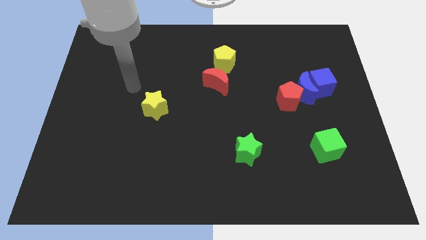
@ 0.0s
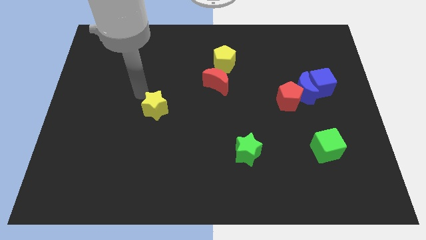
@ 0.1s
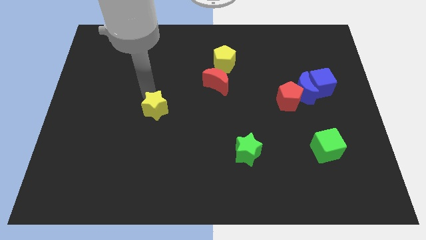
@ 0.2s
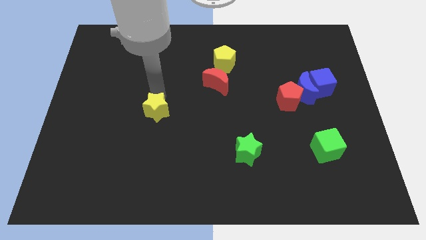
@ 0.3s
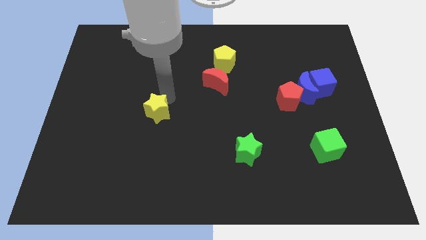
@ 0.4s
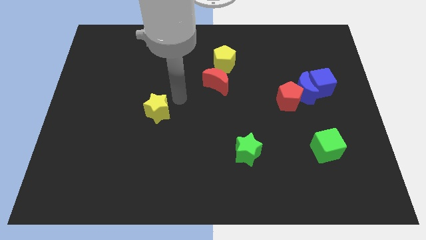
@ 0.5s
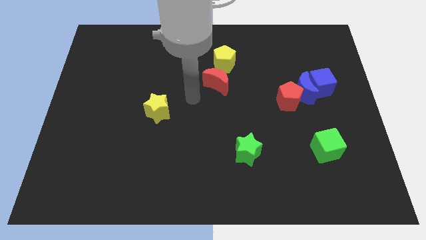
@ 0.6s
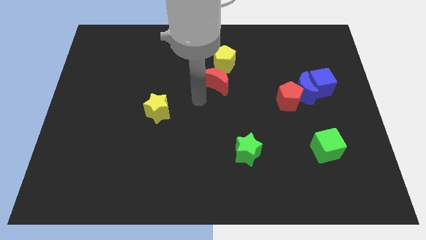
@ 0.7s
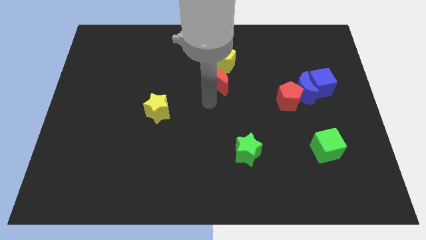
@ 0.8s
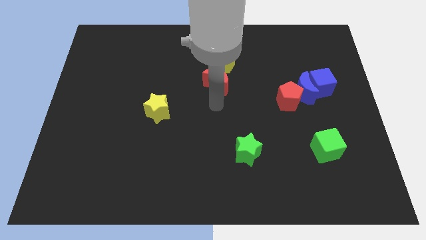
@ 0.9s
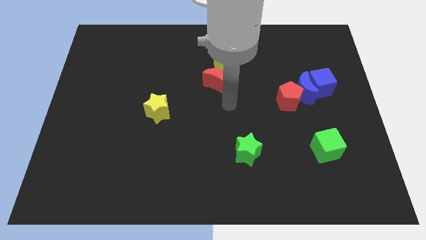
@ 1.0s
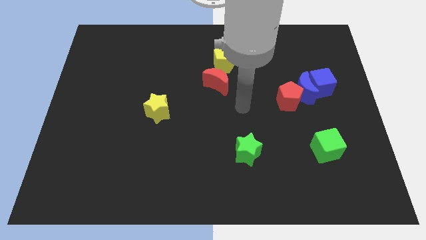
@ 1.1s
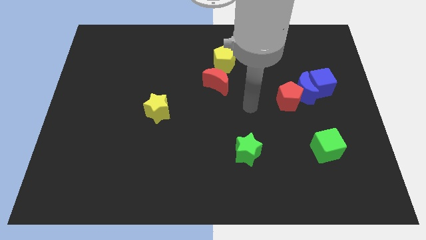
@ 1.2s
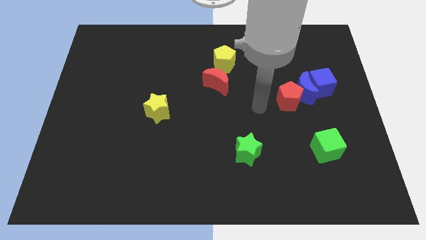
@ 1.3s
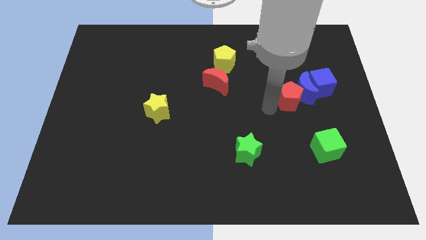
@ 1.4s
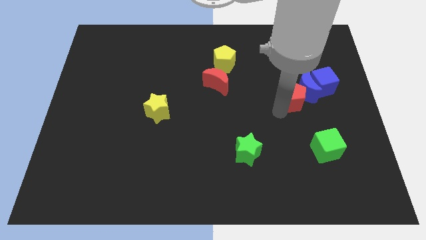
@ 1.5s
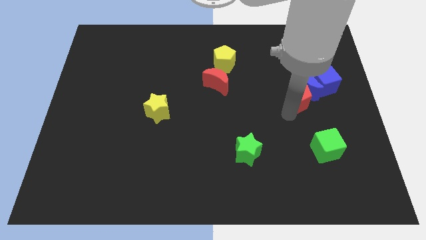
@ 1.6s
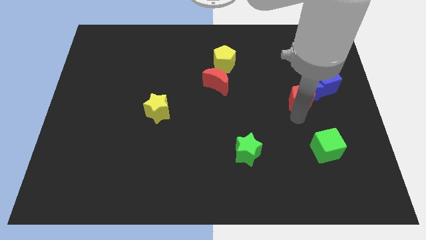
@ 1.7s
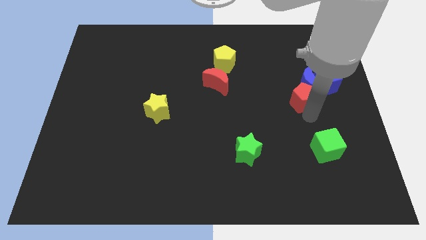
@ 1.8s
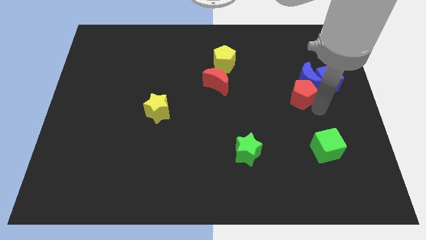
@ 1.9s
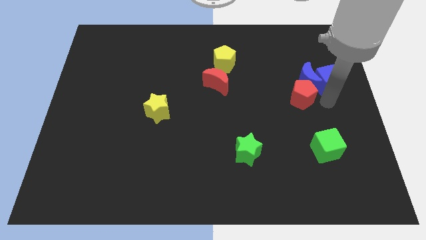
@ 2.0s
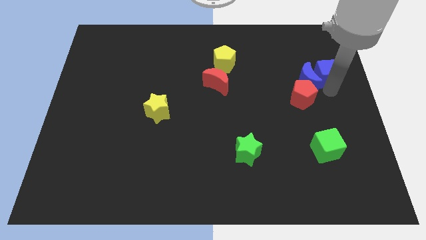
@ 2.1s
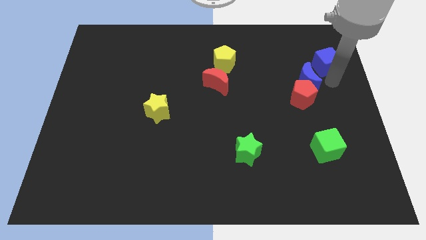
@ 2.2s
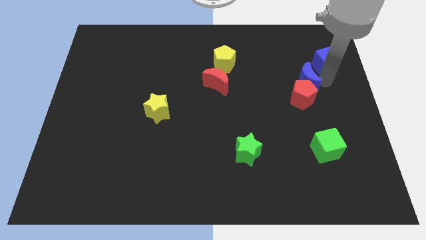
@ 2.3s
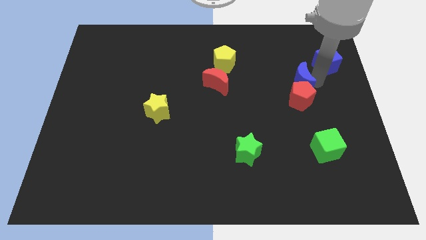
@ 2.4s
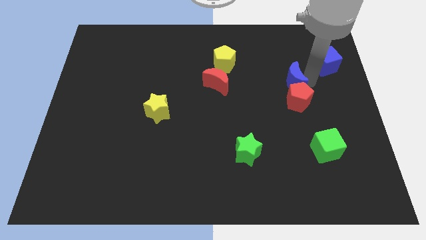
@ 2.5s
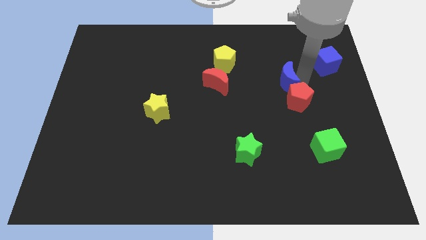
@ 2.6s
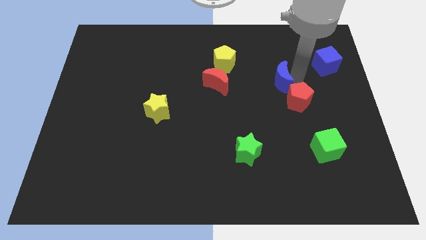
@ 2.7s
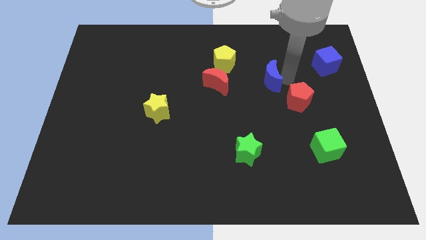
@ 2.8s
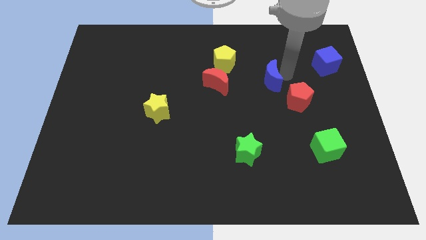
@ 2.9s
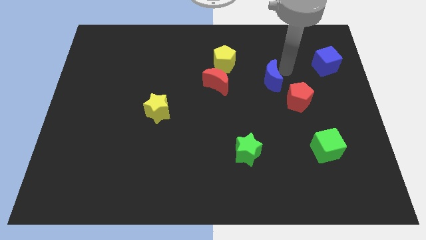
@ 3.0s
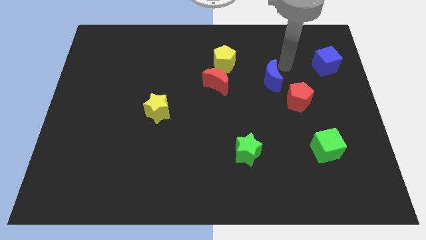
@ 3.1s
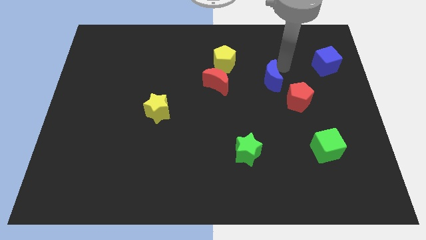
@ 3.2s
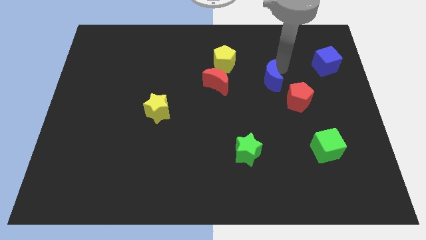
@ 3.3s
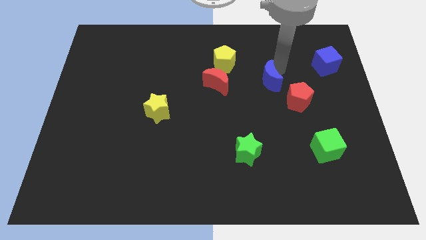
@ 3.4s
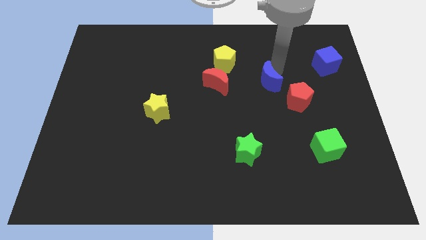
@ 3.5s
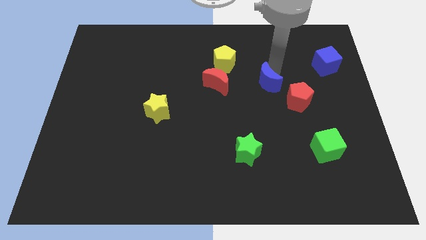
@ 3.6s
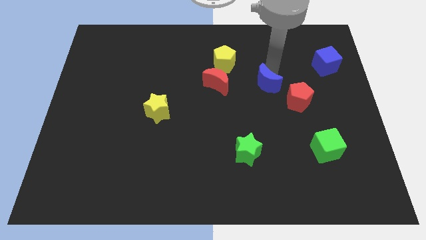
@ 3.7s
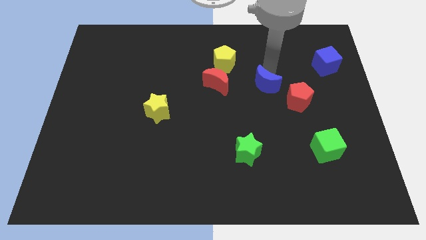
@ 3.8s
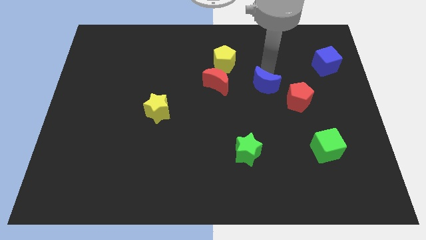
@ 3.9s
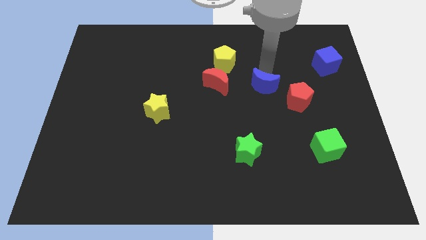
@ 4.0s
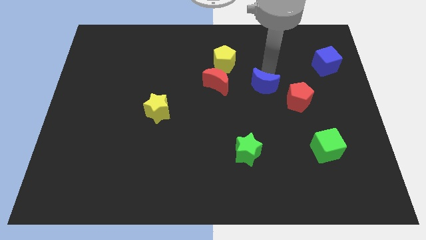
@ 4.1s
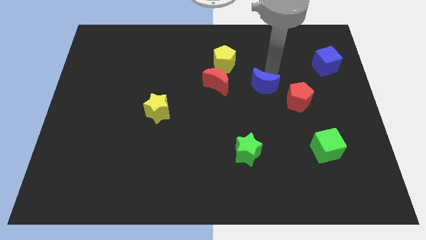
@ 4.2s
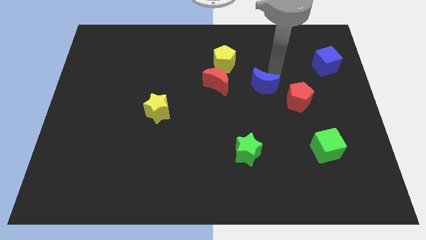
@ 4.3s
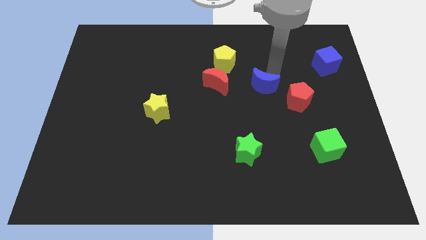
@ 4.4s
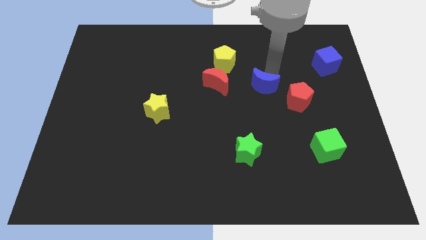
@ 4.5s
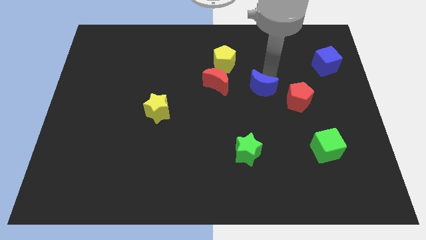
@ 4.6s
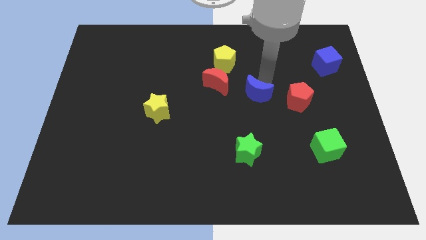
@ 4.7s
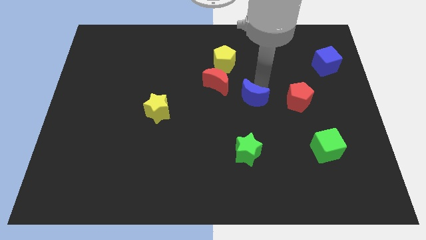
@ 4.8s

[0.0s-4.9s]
slide the blue moon above the green star

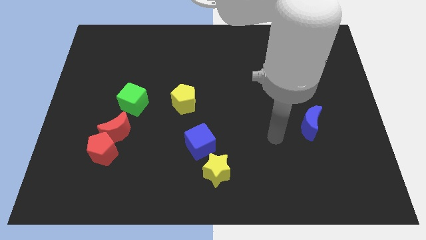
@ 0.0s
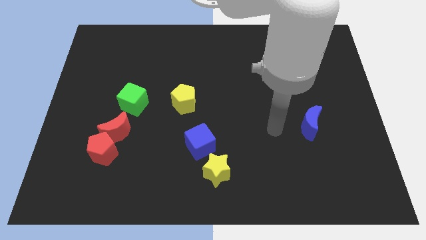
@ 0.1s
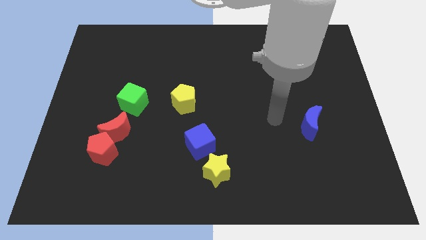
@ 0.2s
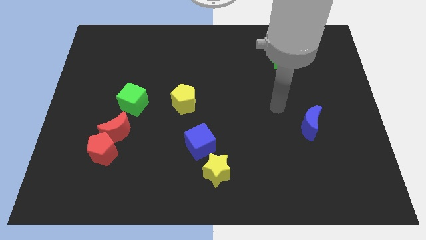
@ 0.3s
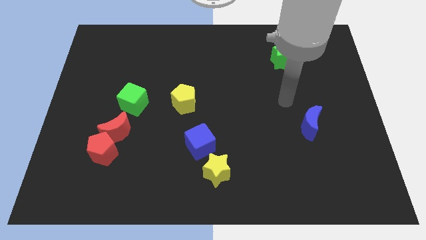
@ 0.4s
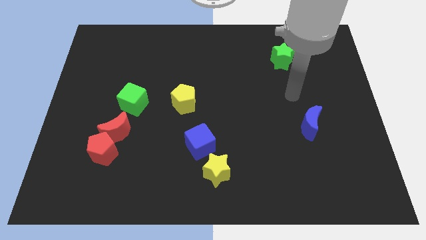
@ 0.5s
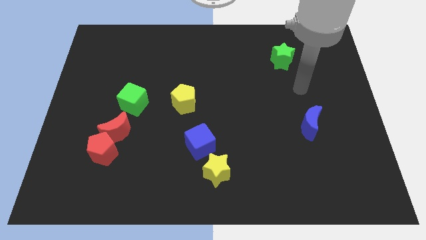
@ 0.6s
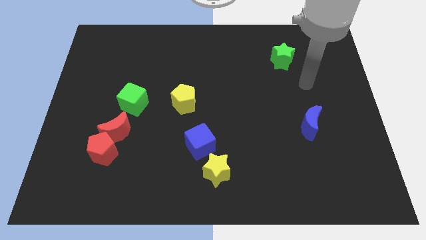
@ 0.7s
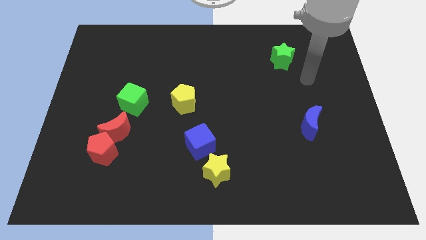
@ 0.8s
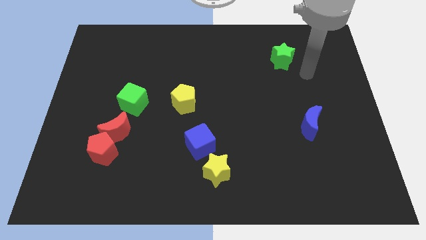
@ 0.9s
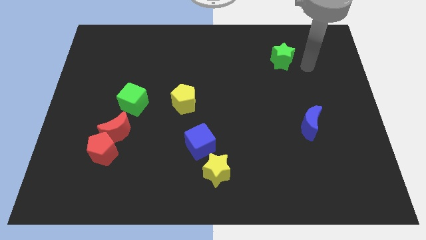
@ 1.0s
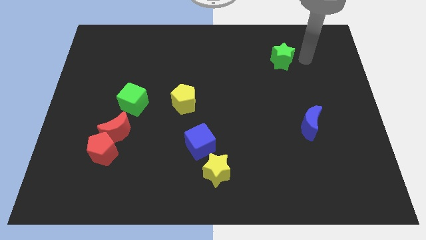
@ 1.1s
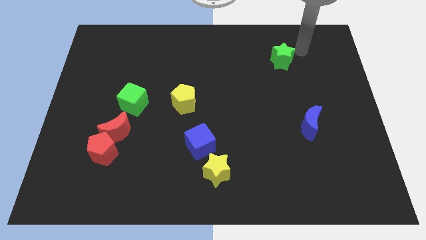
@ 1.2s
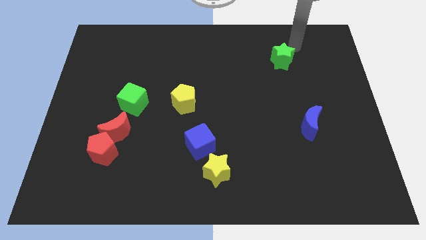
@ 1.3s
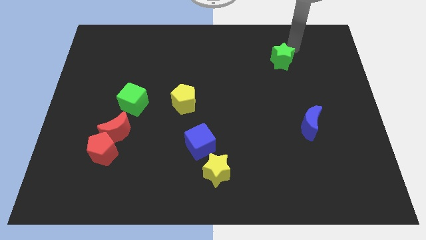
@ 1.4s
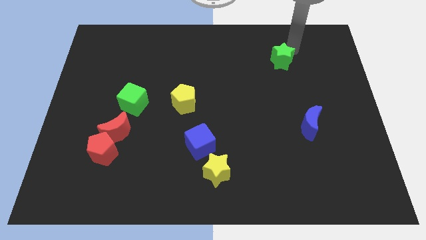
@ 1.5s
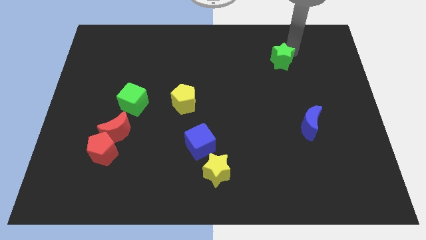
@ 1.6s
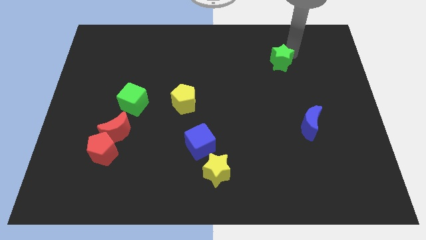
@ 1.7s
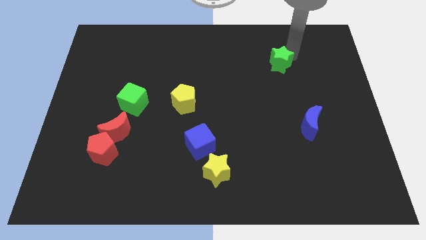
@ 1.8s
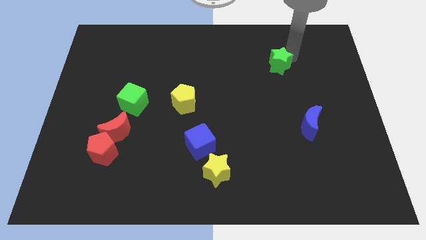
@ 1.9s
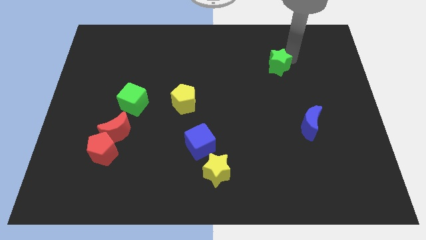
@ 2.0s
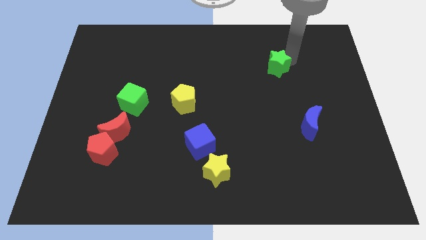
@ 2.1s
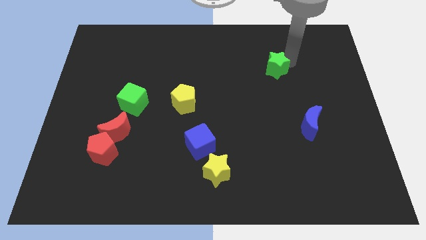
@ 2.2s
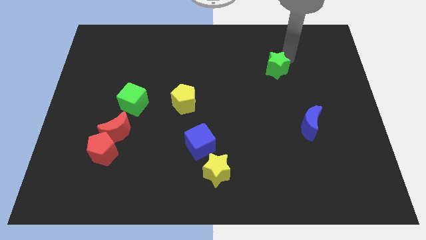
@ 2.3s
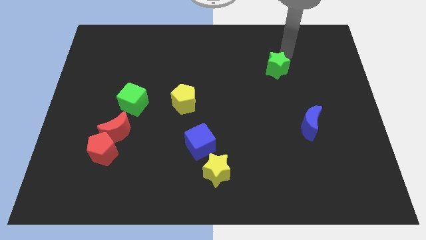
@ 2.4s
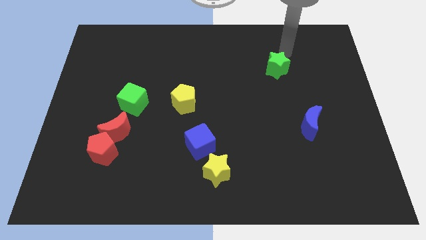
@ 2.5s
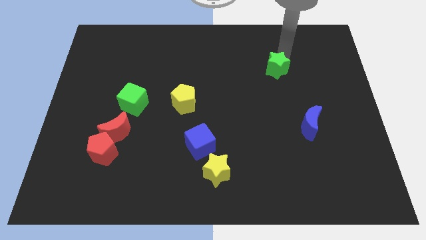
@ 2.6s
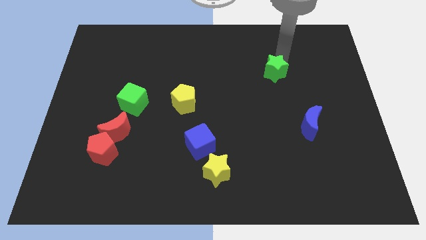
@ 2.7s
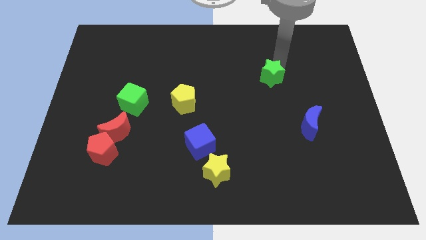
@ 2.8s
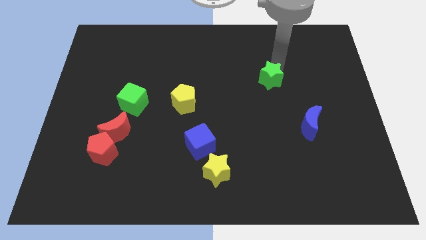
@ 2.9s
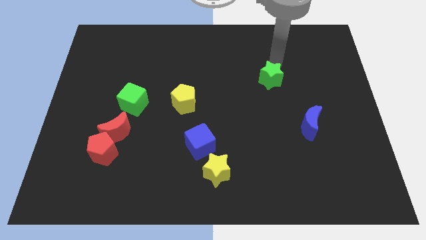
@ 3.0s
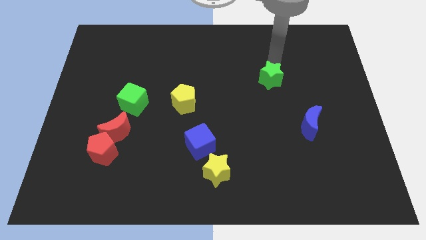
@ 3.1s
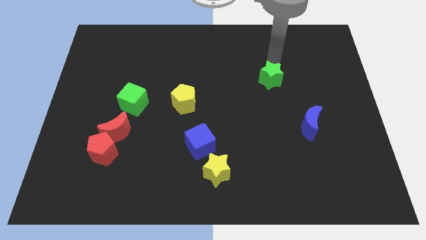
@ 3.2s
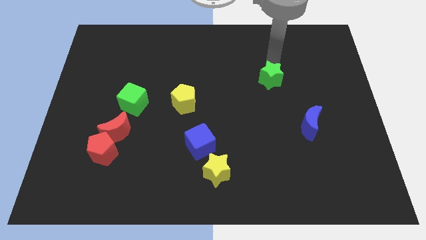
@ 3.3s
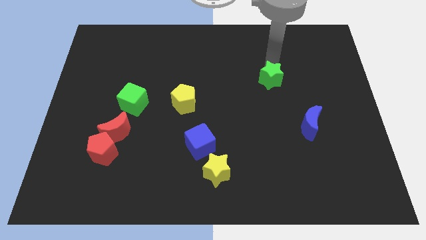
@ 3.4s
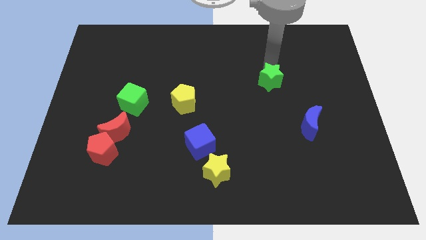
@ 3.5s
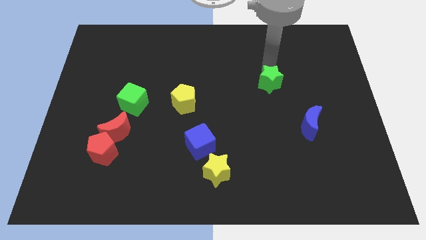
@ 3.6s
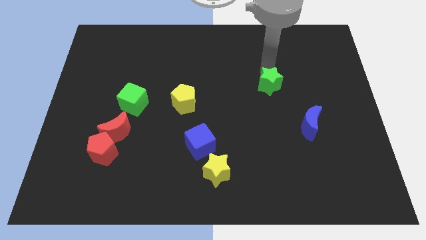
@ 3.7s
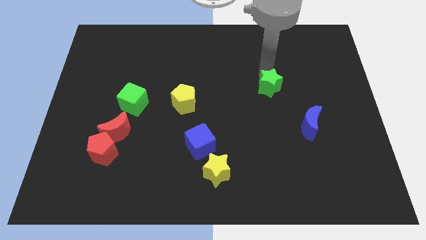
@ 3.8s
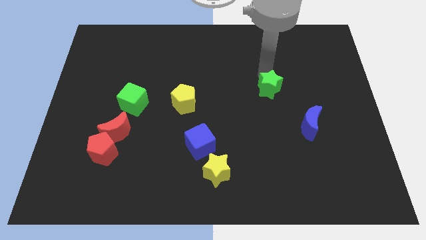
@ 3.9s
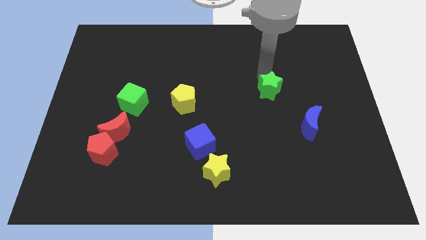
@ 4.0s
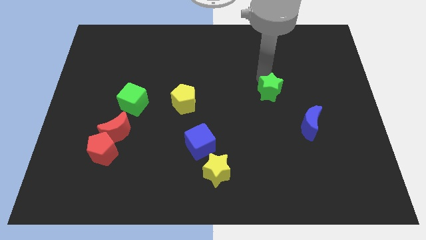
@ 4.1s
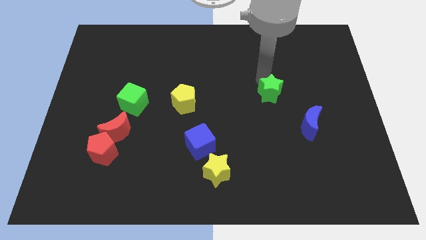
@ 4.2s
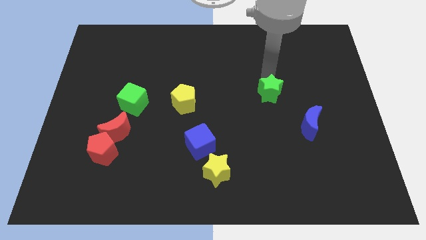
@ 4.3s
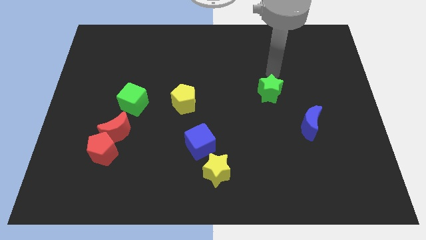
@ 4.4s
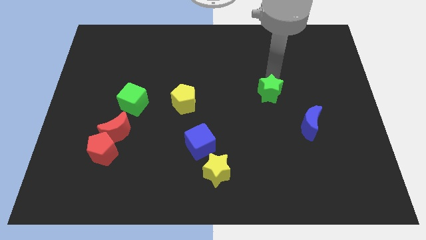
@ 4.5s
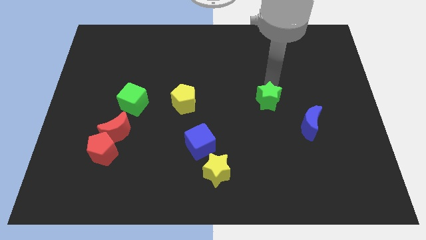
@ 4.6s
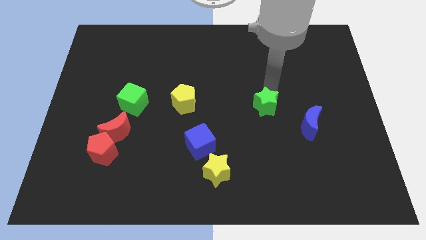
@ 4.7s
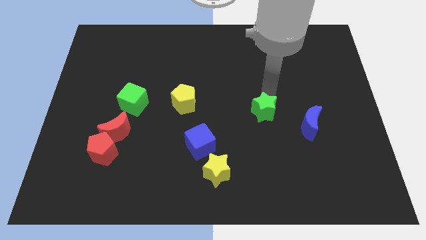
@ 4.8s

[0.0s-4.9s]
put the green star just left of the blue moon
